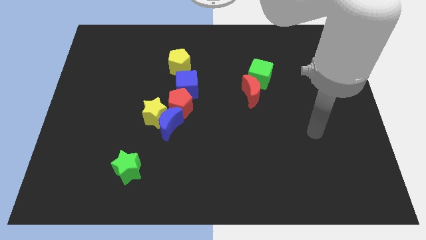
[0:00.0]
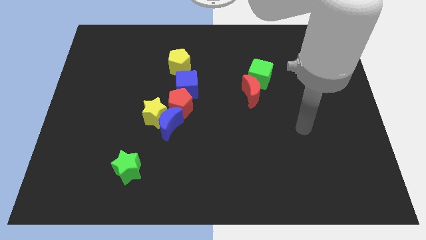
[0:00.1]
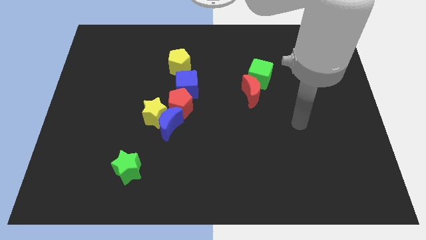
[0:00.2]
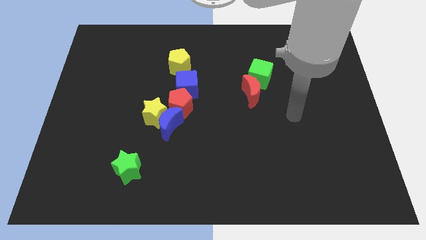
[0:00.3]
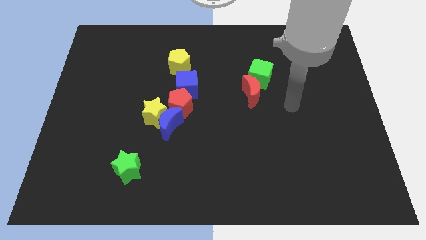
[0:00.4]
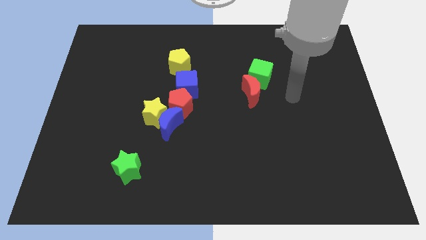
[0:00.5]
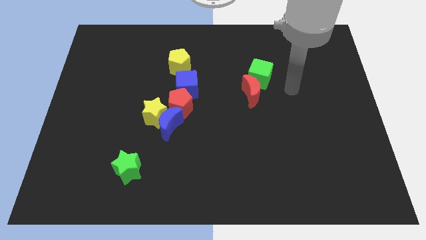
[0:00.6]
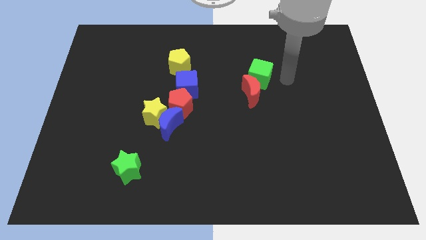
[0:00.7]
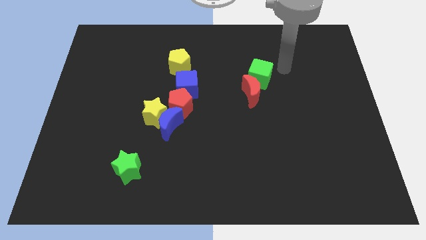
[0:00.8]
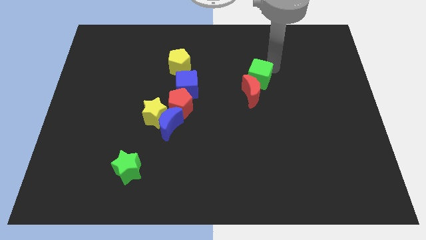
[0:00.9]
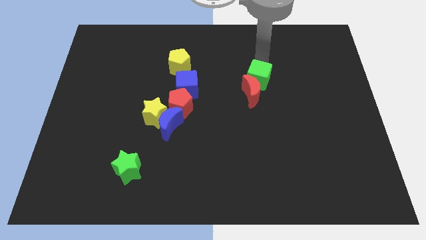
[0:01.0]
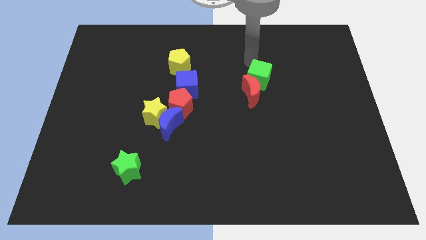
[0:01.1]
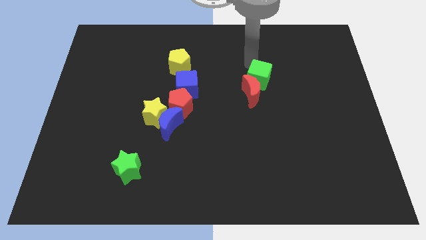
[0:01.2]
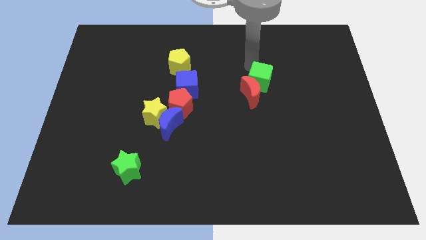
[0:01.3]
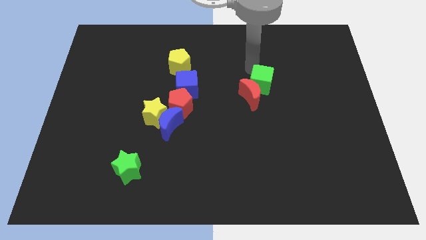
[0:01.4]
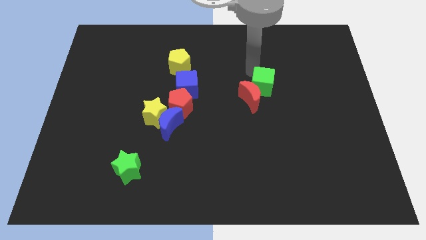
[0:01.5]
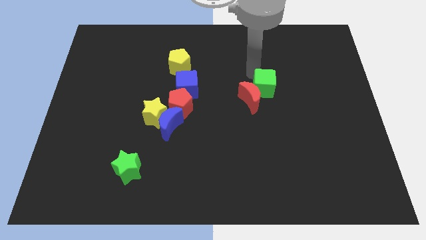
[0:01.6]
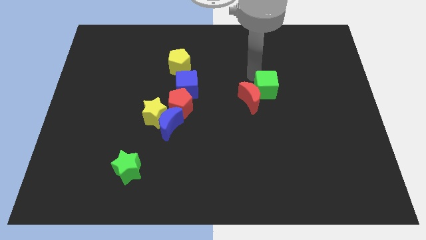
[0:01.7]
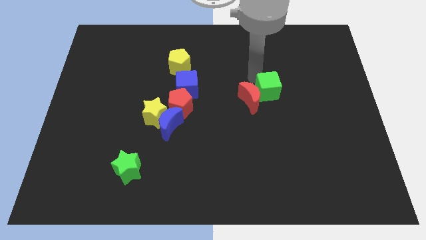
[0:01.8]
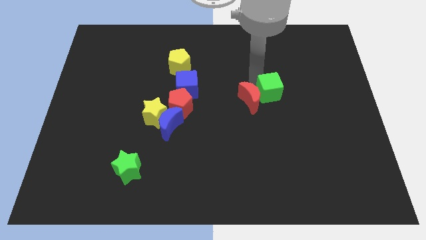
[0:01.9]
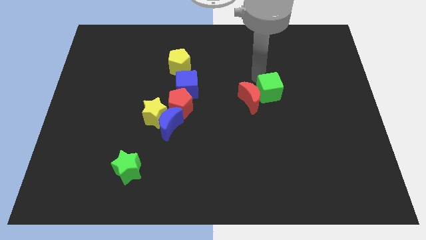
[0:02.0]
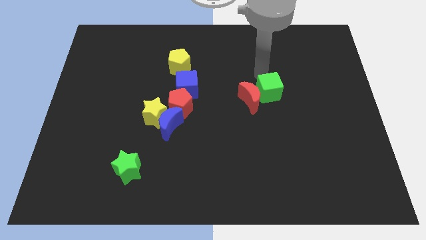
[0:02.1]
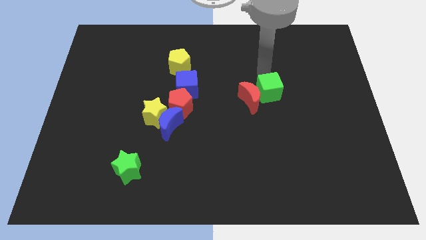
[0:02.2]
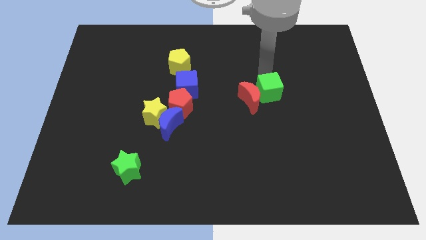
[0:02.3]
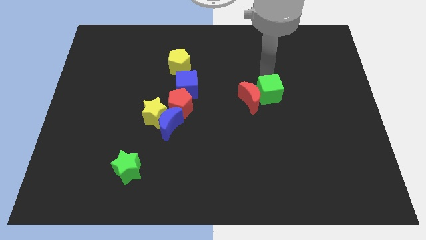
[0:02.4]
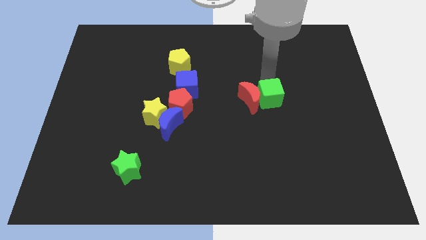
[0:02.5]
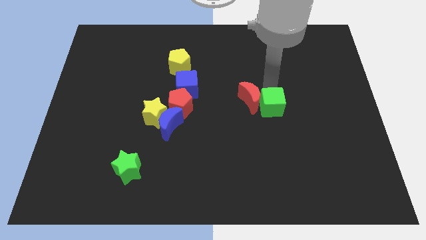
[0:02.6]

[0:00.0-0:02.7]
push the green cube down slightly

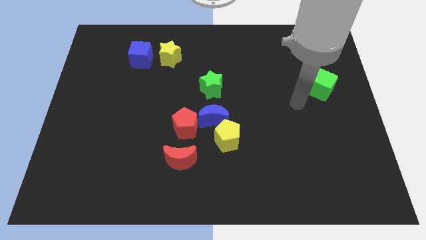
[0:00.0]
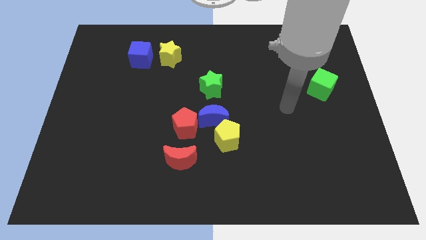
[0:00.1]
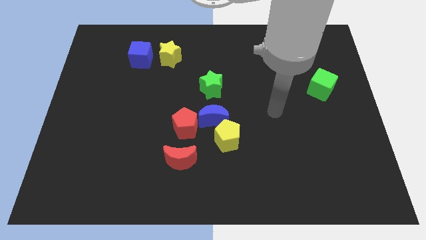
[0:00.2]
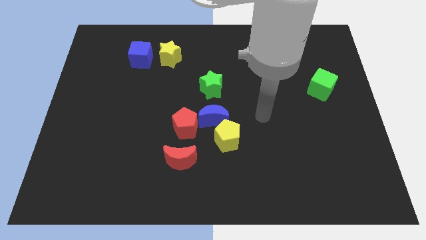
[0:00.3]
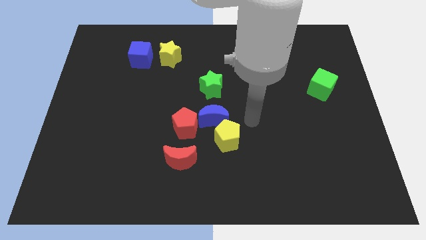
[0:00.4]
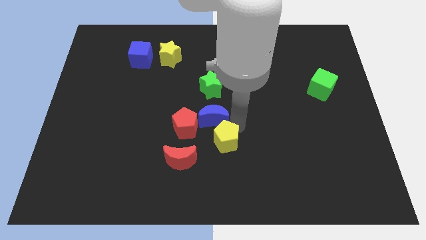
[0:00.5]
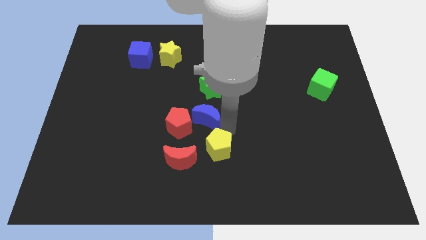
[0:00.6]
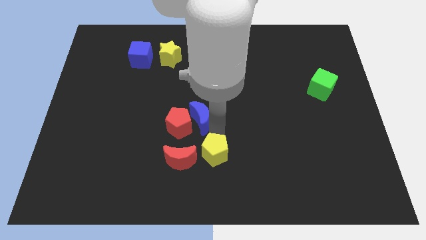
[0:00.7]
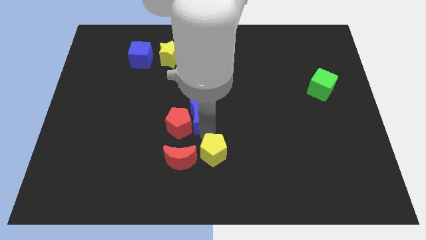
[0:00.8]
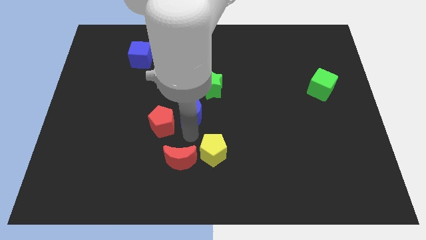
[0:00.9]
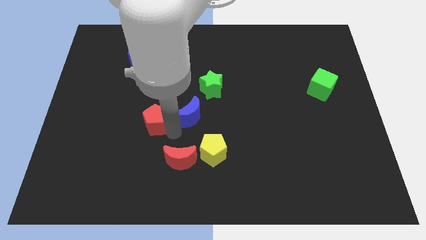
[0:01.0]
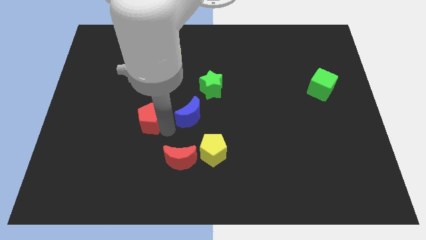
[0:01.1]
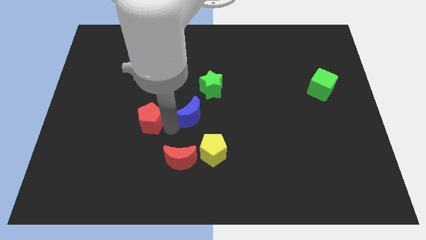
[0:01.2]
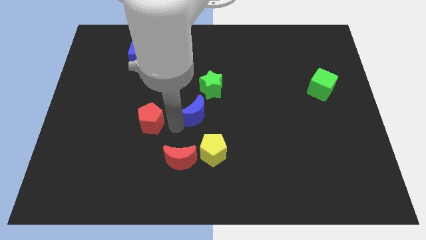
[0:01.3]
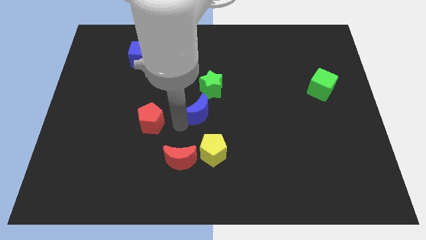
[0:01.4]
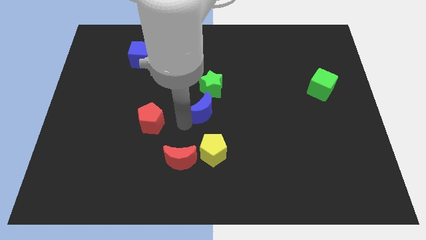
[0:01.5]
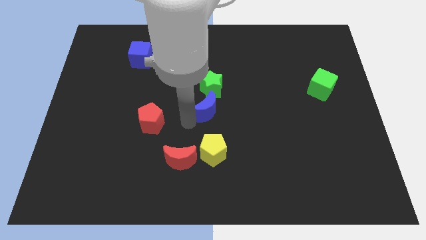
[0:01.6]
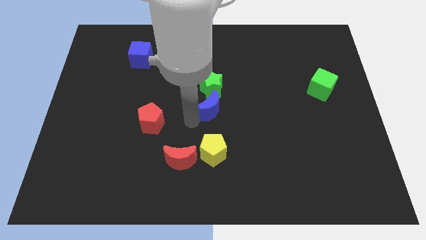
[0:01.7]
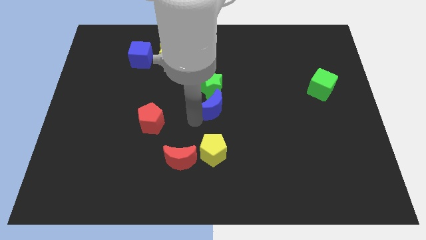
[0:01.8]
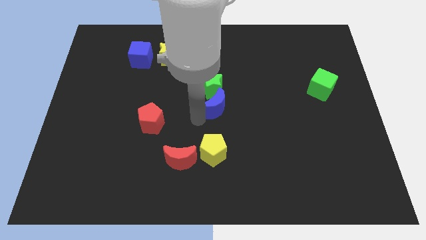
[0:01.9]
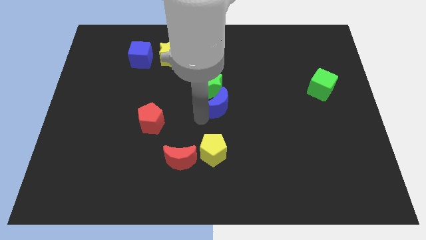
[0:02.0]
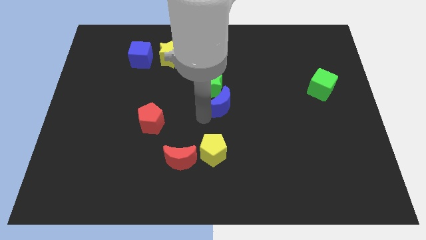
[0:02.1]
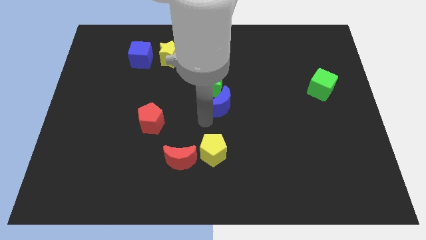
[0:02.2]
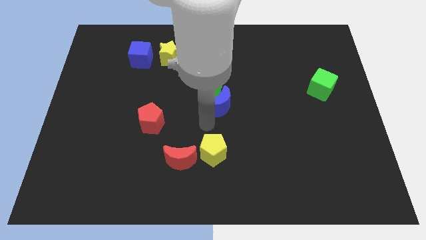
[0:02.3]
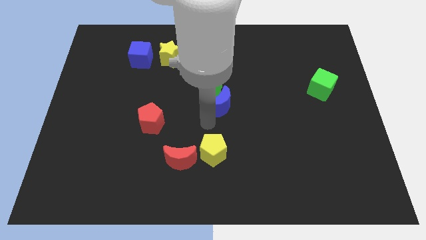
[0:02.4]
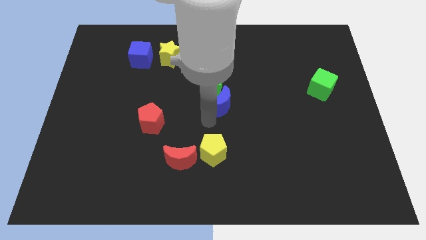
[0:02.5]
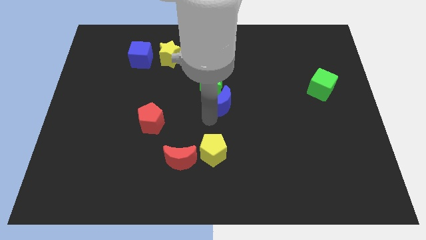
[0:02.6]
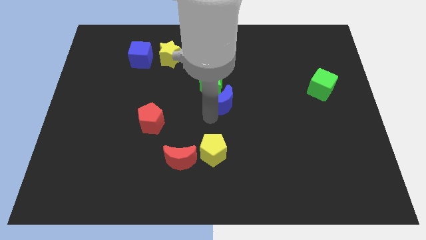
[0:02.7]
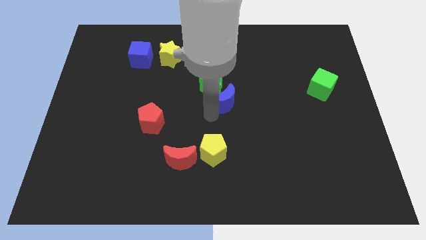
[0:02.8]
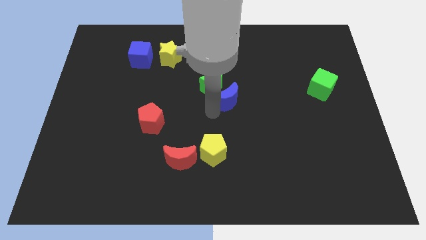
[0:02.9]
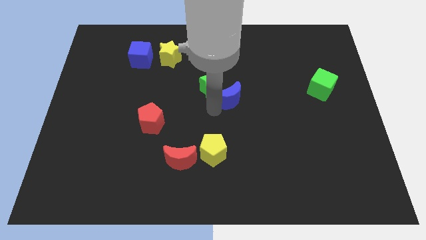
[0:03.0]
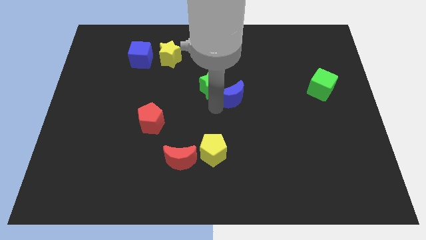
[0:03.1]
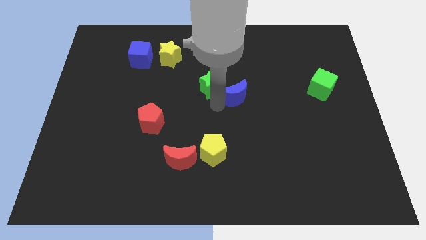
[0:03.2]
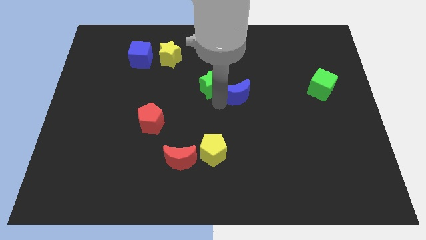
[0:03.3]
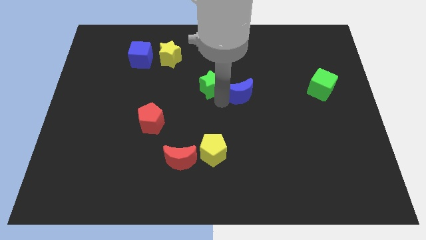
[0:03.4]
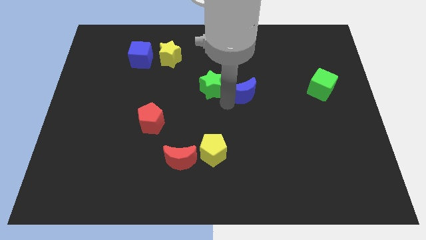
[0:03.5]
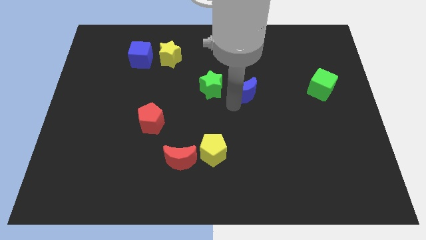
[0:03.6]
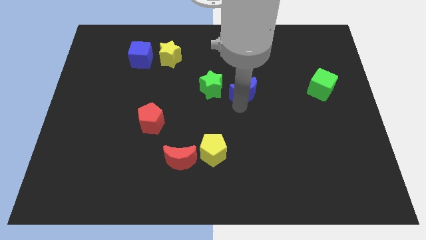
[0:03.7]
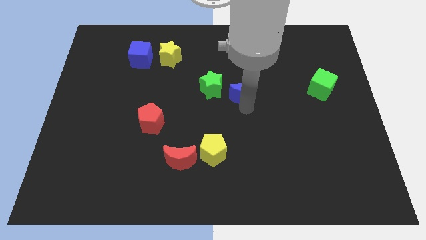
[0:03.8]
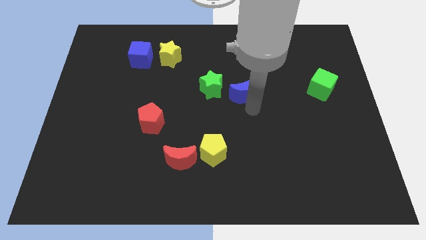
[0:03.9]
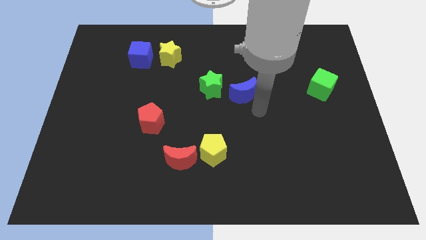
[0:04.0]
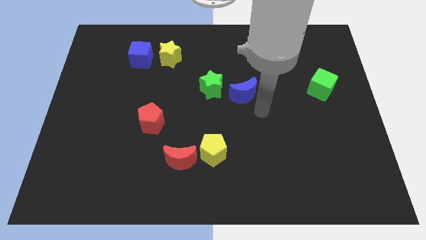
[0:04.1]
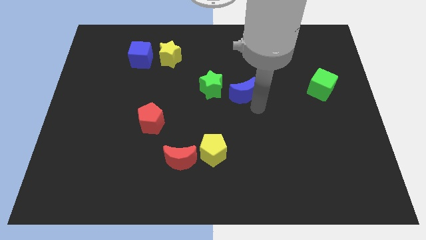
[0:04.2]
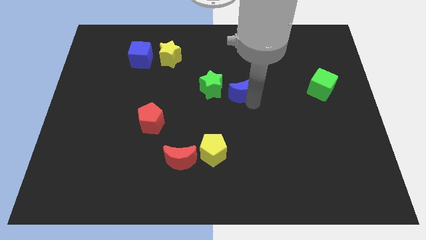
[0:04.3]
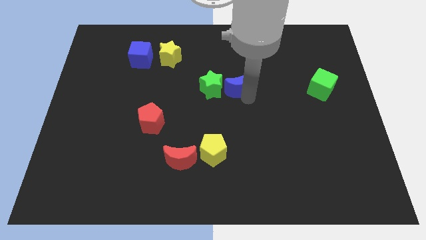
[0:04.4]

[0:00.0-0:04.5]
push the blue moon a little bit upwards

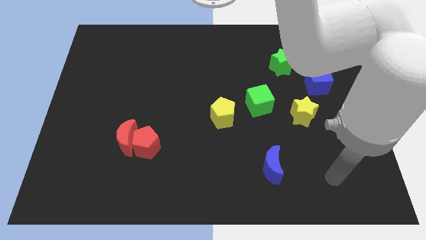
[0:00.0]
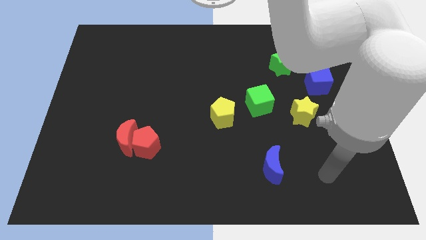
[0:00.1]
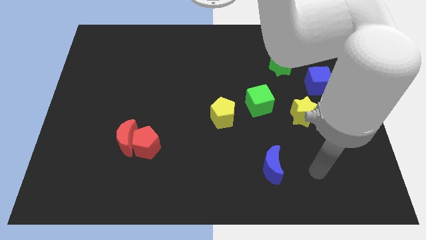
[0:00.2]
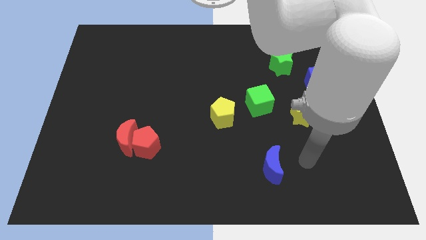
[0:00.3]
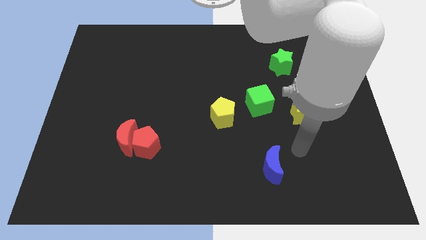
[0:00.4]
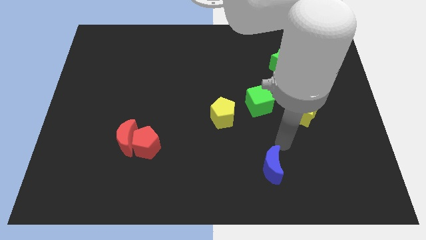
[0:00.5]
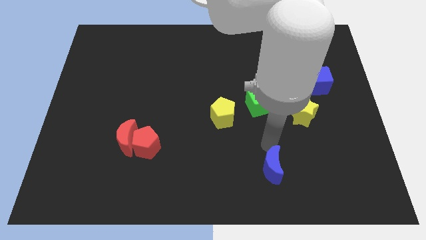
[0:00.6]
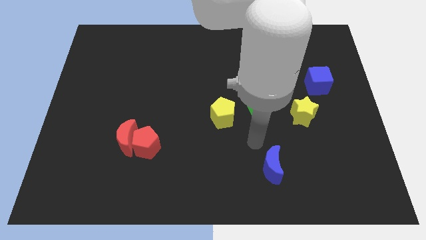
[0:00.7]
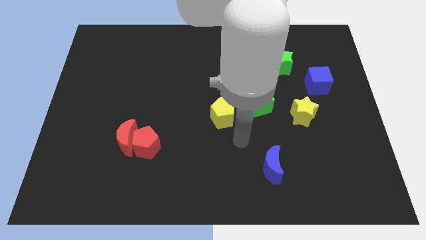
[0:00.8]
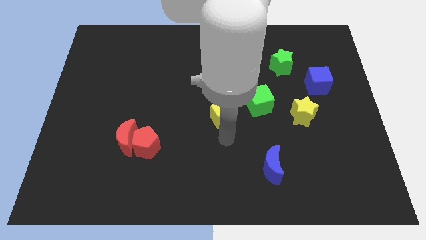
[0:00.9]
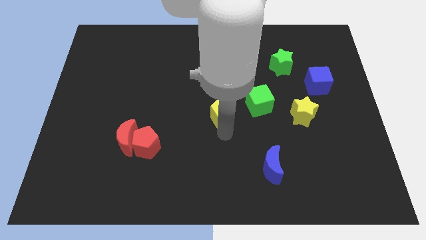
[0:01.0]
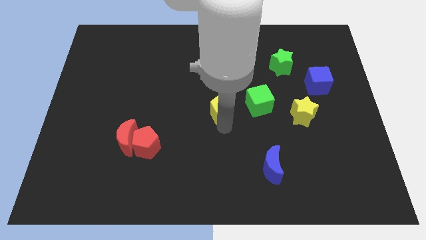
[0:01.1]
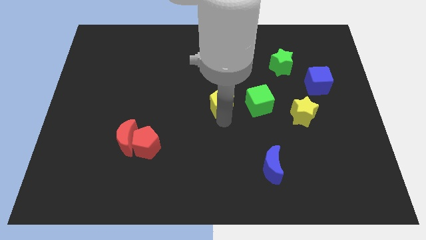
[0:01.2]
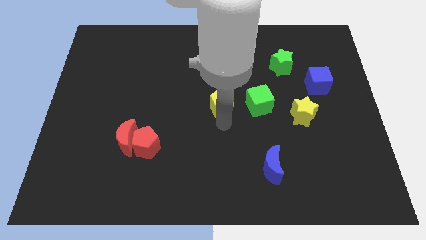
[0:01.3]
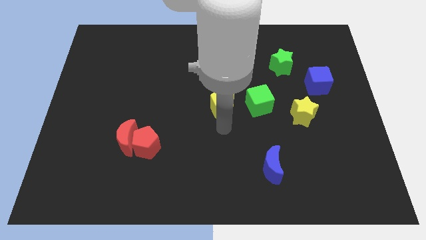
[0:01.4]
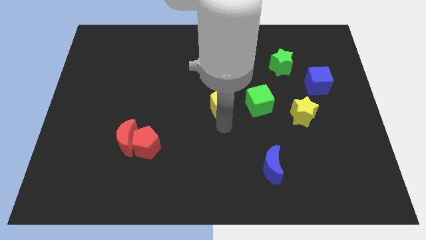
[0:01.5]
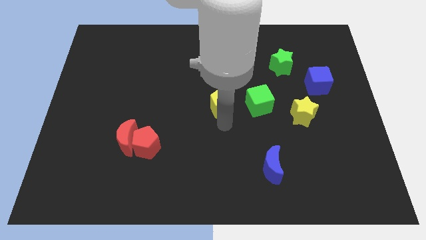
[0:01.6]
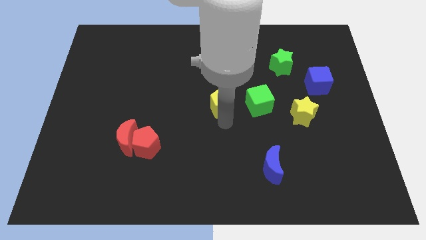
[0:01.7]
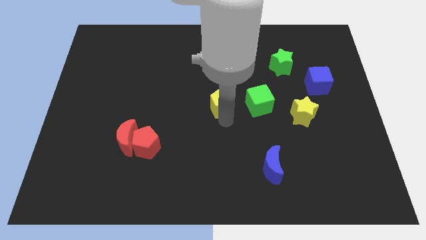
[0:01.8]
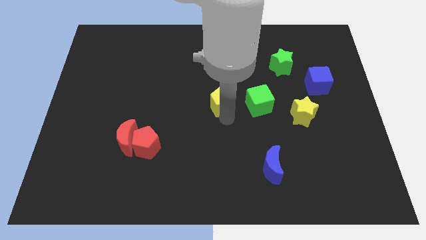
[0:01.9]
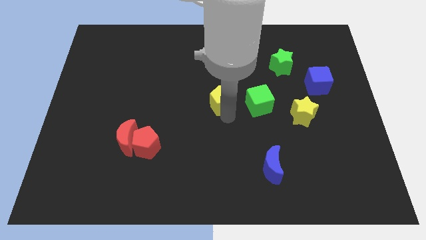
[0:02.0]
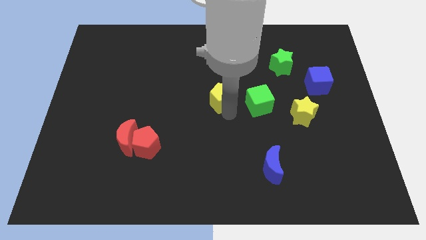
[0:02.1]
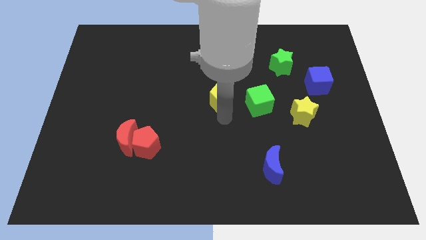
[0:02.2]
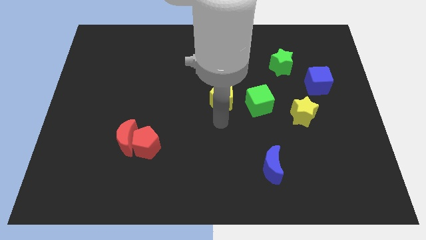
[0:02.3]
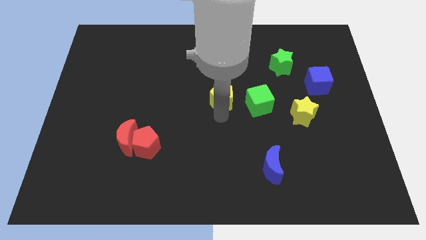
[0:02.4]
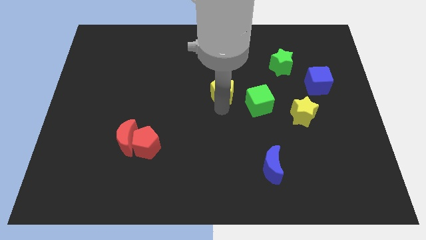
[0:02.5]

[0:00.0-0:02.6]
slightly push the yellow pentagon upwards
